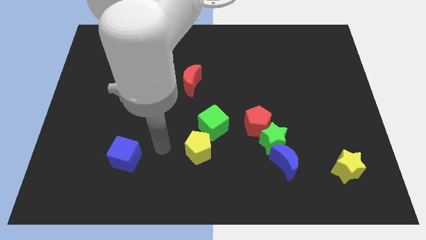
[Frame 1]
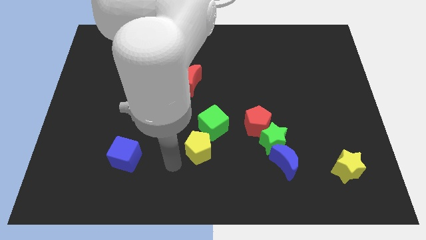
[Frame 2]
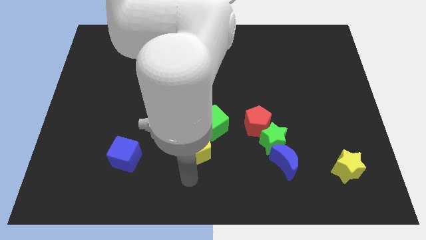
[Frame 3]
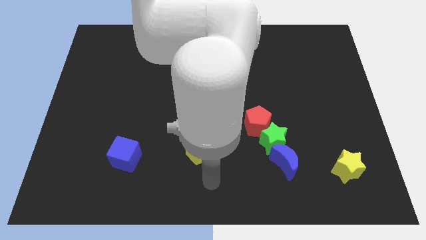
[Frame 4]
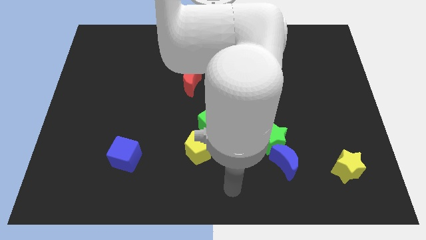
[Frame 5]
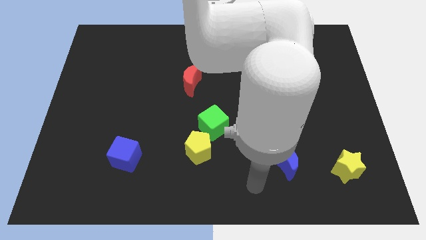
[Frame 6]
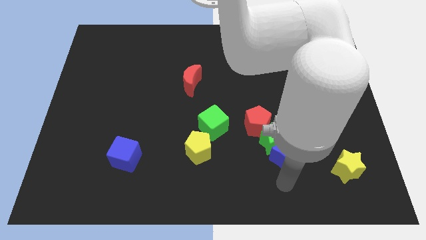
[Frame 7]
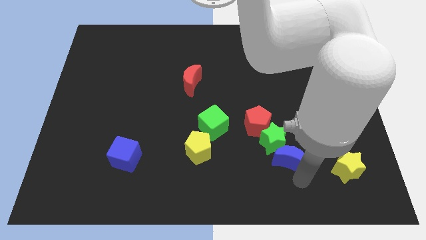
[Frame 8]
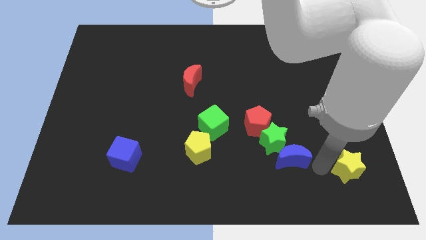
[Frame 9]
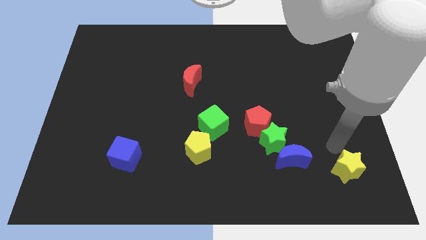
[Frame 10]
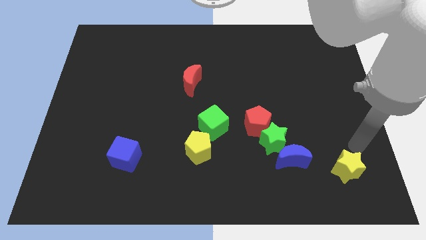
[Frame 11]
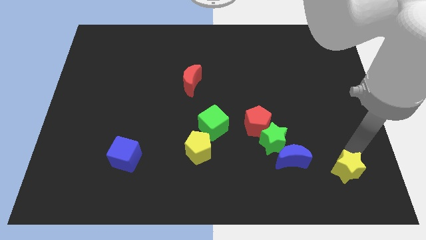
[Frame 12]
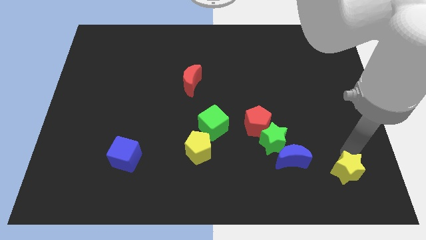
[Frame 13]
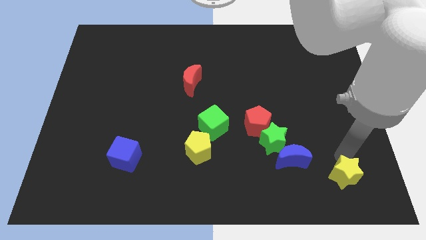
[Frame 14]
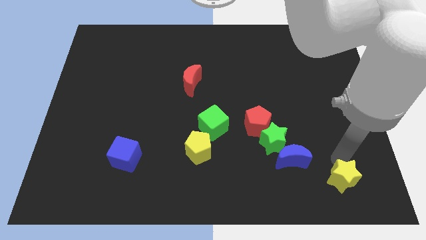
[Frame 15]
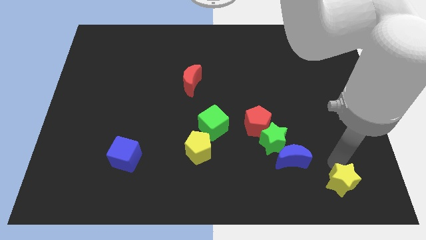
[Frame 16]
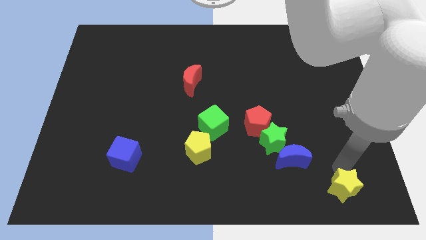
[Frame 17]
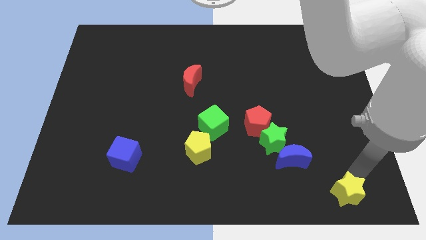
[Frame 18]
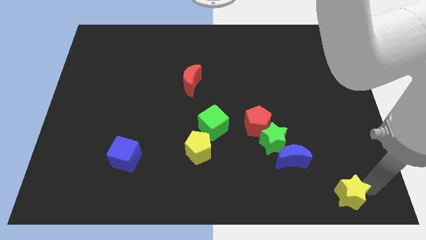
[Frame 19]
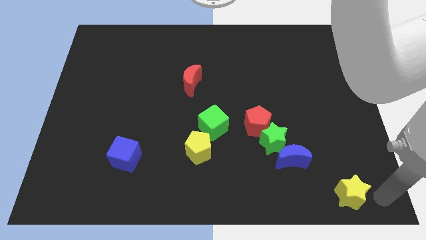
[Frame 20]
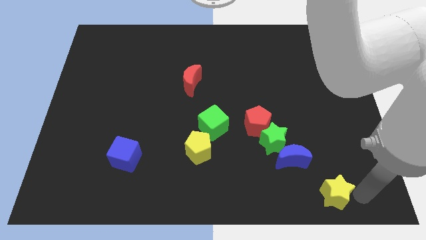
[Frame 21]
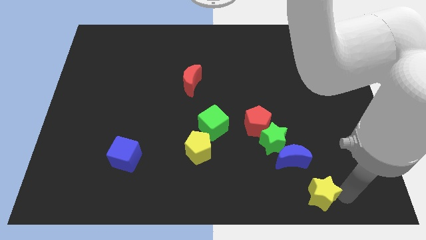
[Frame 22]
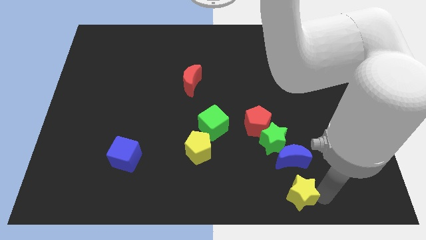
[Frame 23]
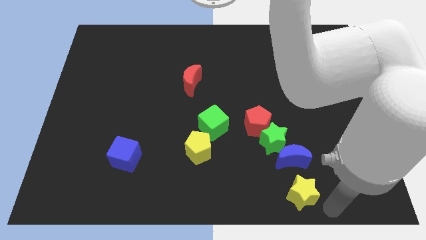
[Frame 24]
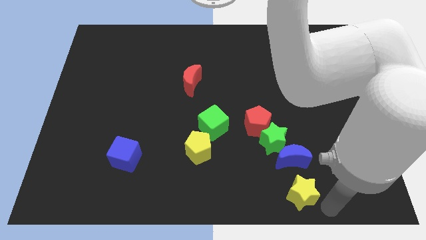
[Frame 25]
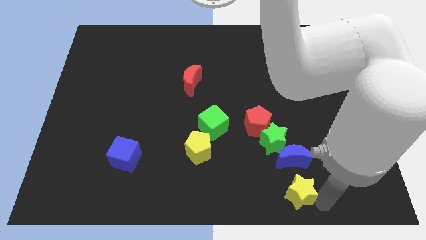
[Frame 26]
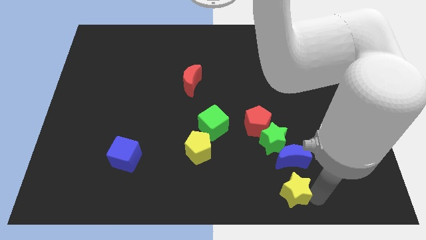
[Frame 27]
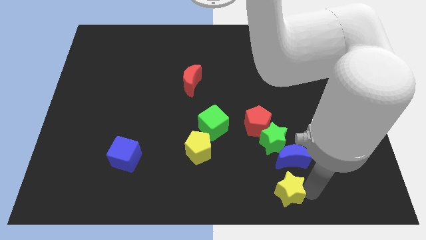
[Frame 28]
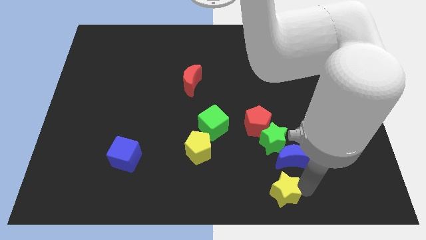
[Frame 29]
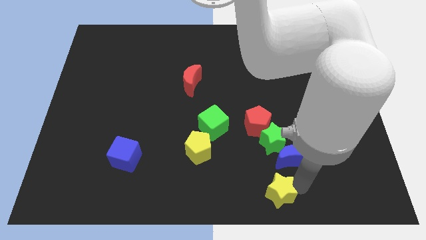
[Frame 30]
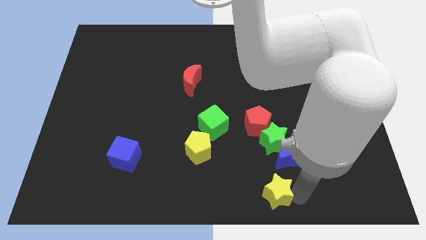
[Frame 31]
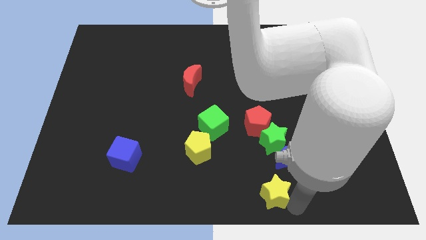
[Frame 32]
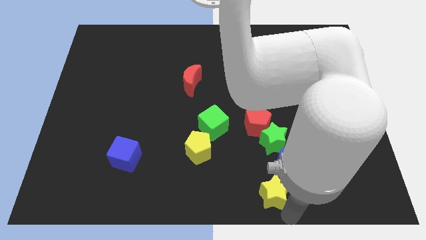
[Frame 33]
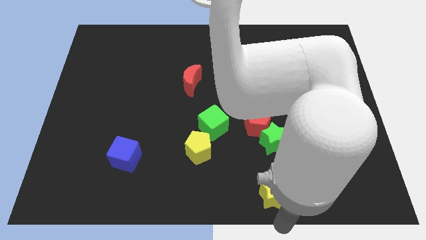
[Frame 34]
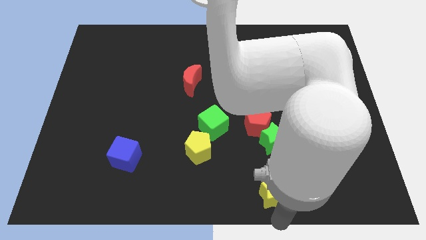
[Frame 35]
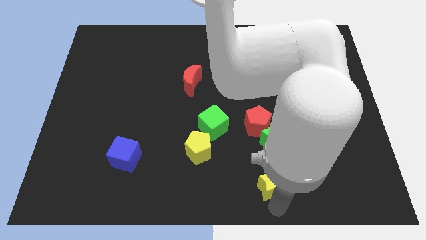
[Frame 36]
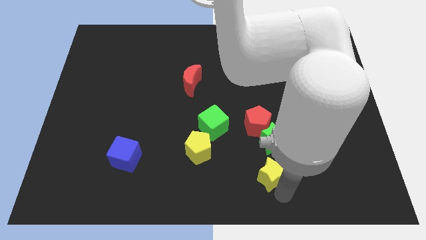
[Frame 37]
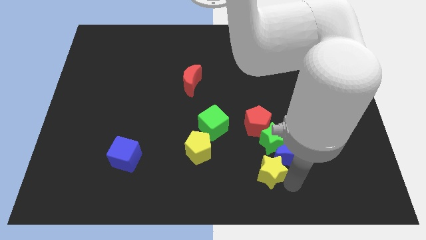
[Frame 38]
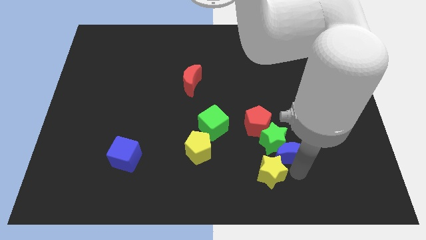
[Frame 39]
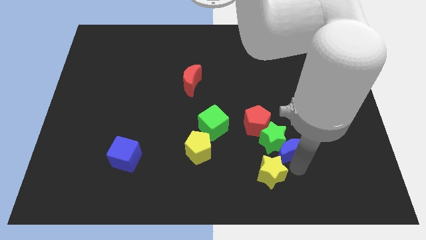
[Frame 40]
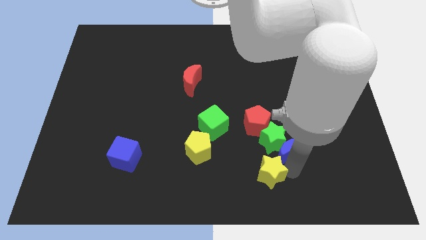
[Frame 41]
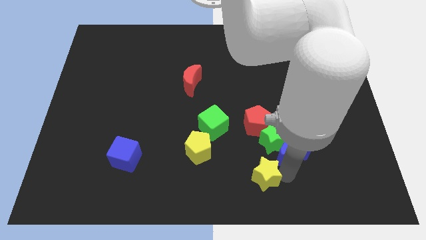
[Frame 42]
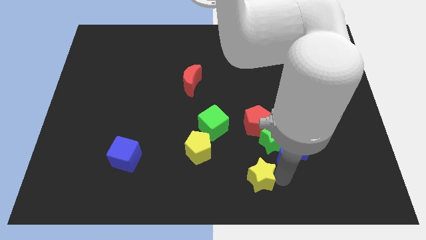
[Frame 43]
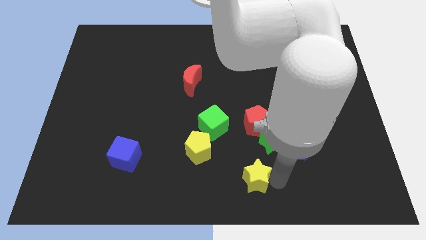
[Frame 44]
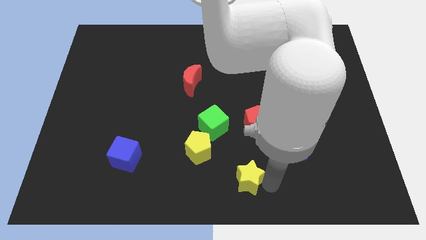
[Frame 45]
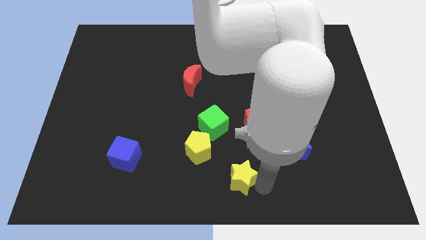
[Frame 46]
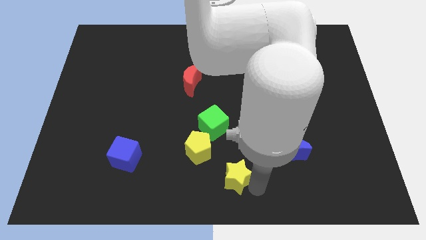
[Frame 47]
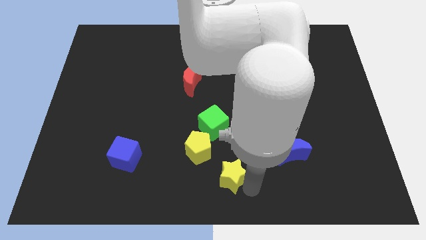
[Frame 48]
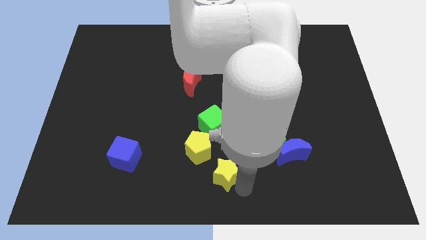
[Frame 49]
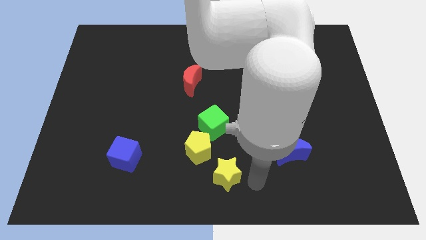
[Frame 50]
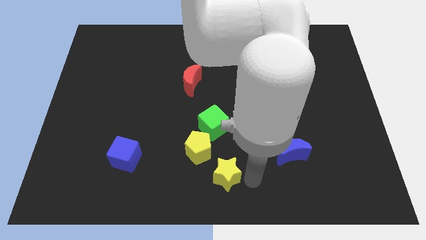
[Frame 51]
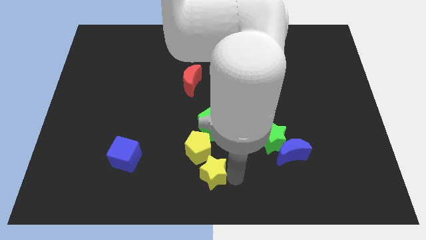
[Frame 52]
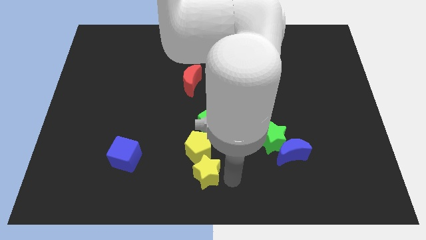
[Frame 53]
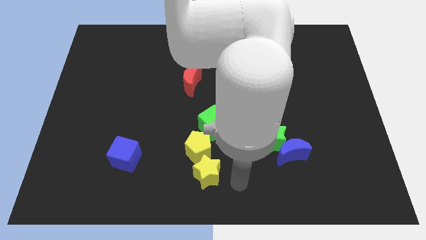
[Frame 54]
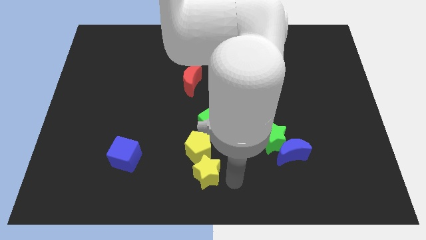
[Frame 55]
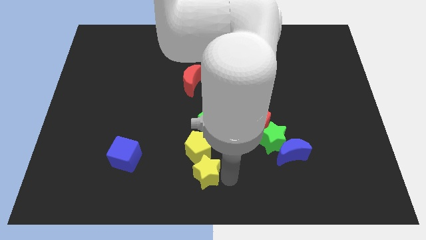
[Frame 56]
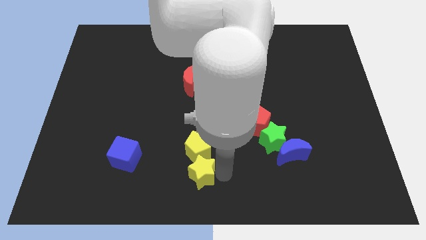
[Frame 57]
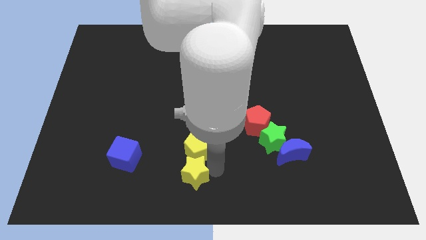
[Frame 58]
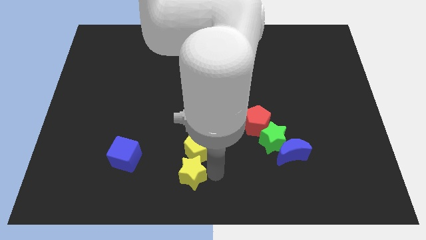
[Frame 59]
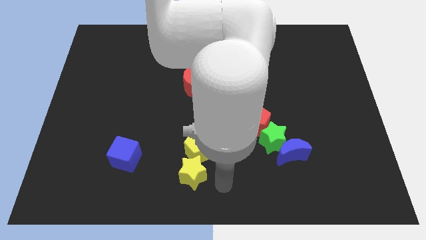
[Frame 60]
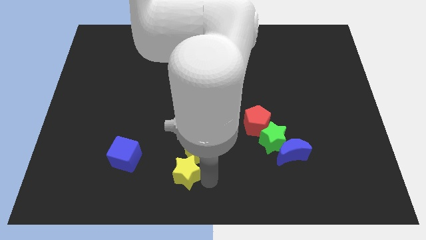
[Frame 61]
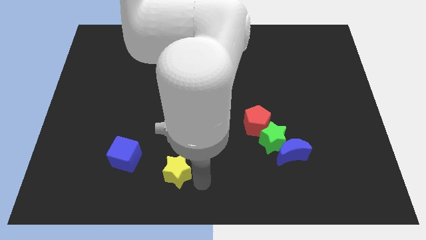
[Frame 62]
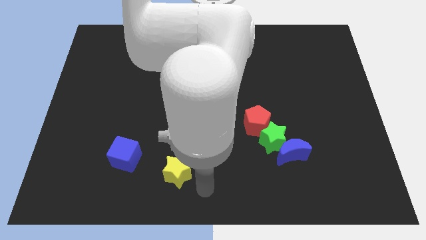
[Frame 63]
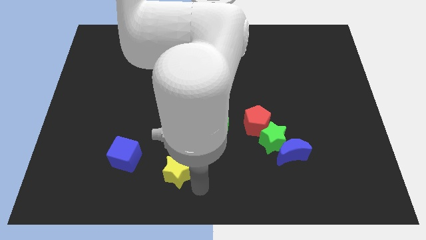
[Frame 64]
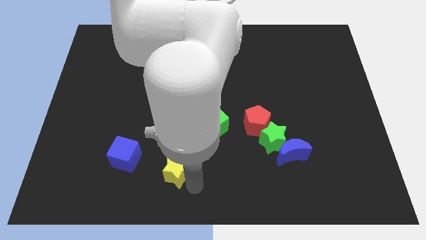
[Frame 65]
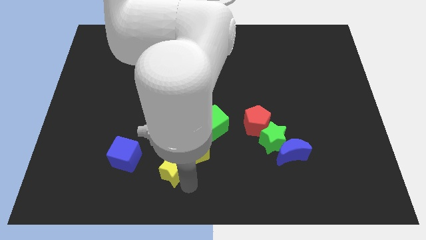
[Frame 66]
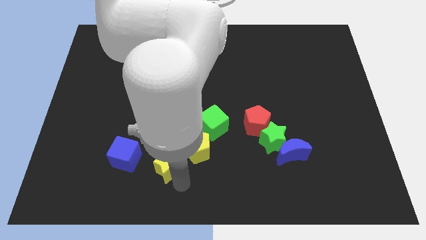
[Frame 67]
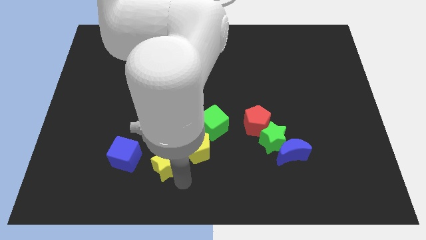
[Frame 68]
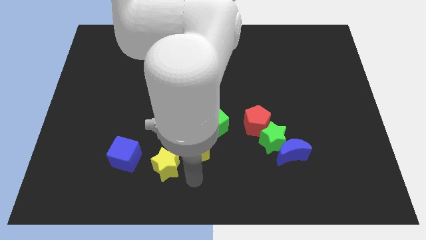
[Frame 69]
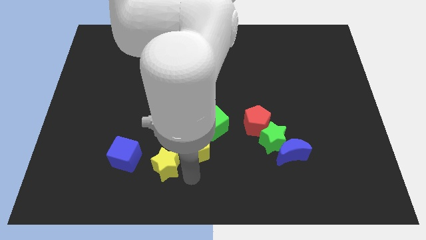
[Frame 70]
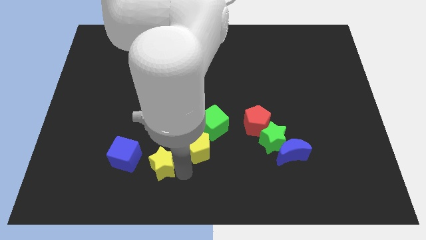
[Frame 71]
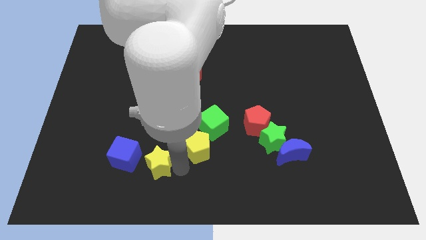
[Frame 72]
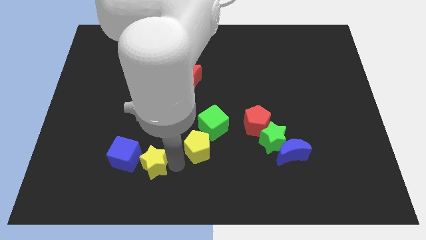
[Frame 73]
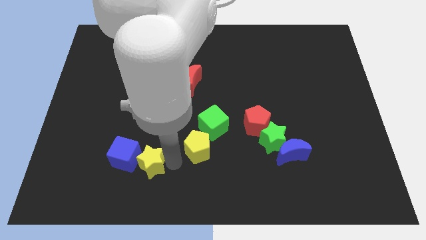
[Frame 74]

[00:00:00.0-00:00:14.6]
push the yellow star towards the blue cube
